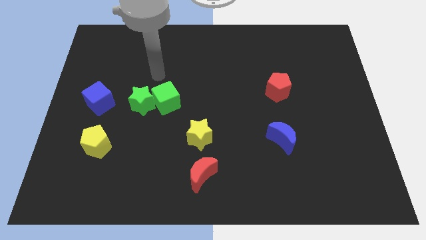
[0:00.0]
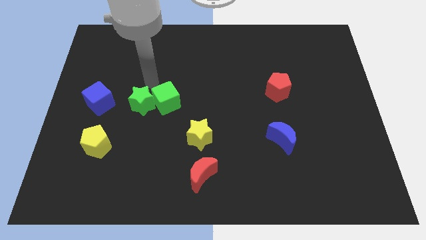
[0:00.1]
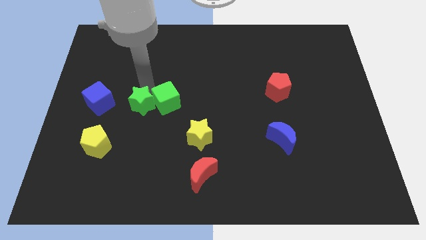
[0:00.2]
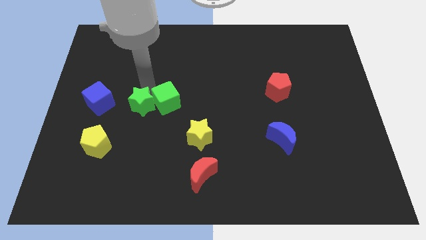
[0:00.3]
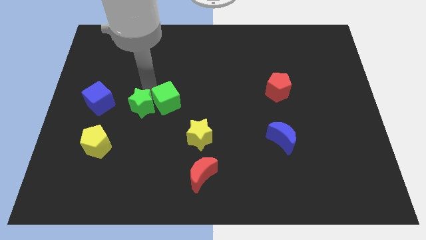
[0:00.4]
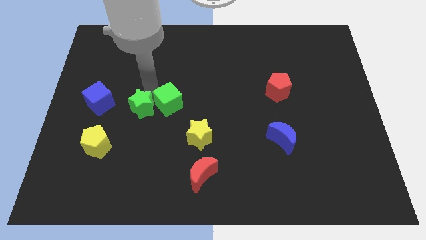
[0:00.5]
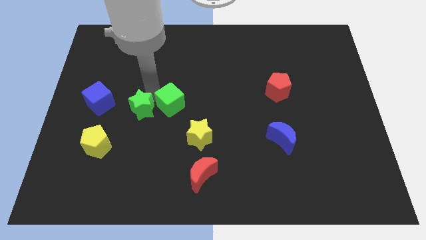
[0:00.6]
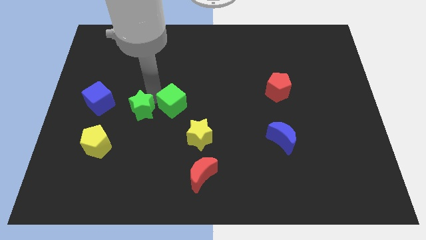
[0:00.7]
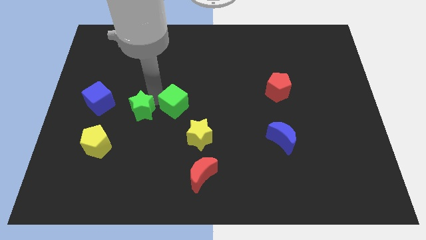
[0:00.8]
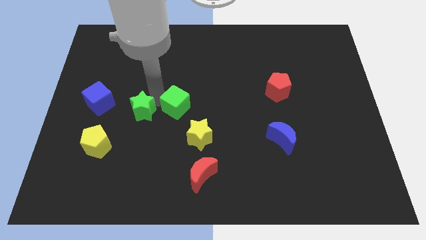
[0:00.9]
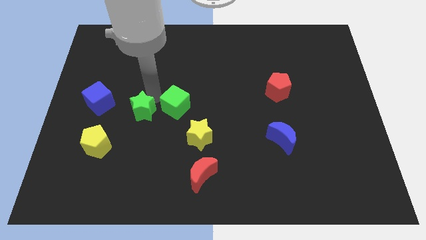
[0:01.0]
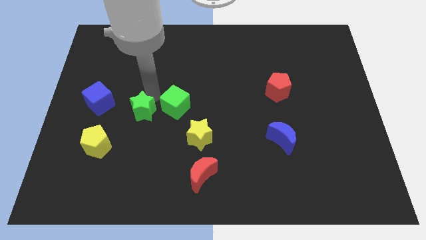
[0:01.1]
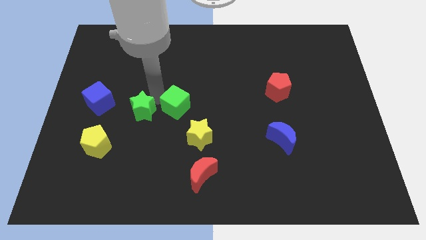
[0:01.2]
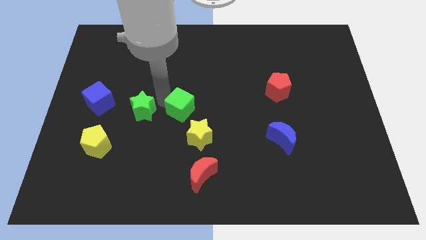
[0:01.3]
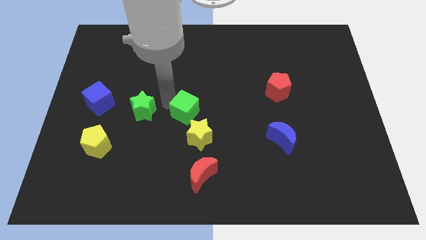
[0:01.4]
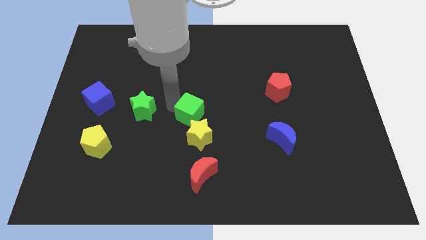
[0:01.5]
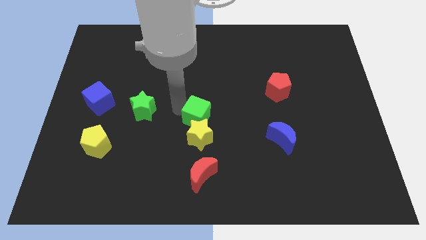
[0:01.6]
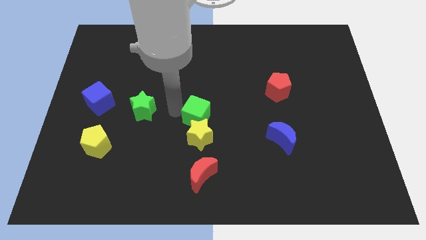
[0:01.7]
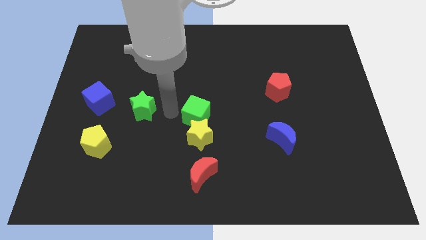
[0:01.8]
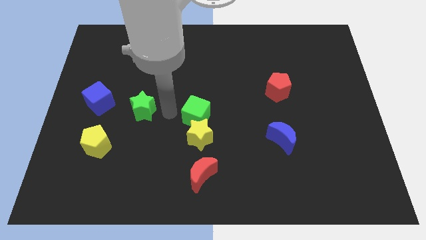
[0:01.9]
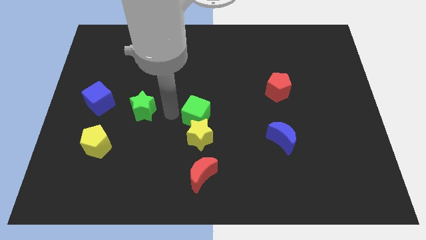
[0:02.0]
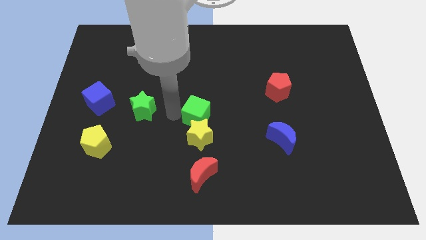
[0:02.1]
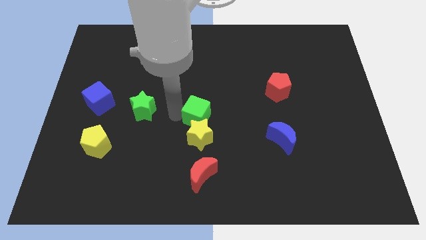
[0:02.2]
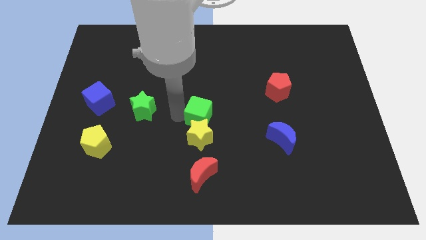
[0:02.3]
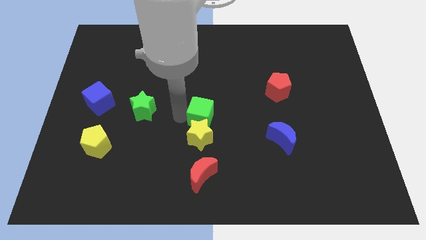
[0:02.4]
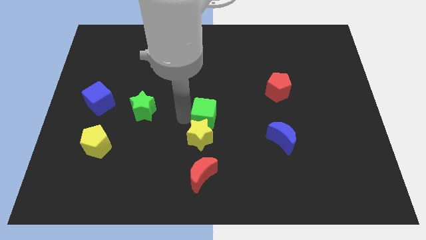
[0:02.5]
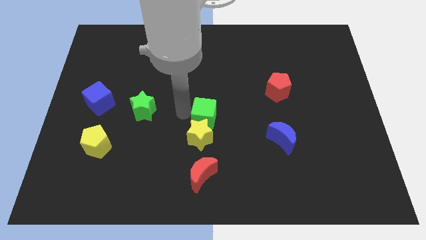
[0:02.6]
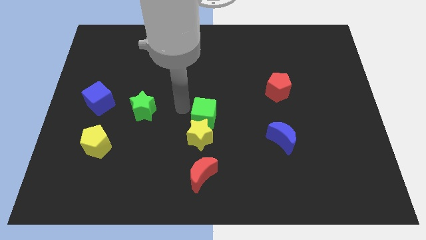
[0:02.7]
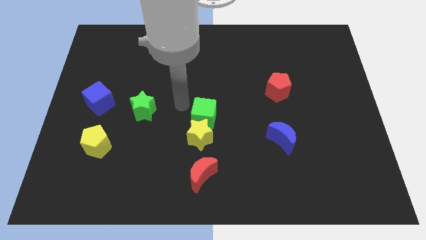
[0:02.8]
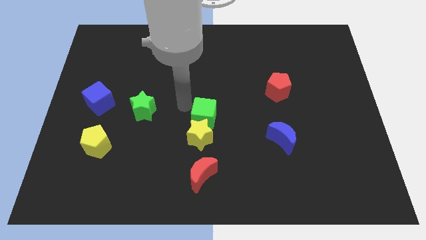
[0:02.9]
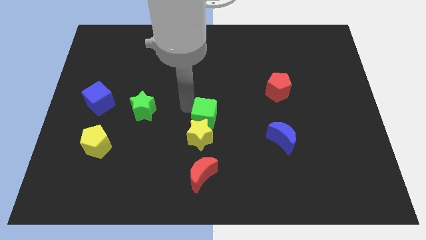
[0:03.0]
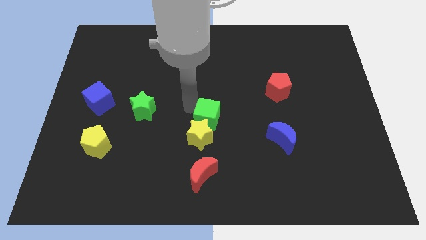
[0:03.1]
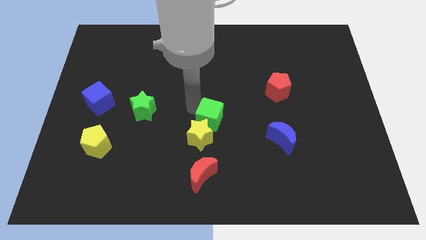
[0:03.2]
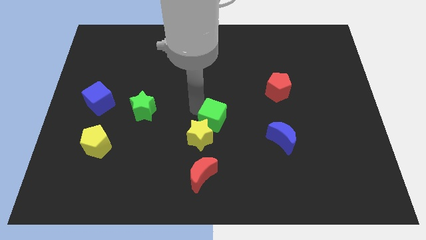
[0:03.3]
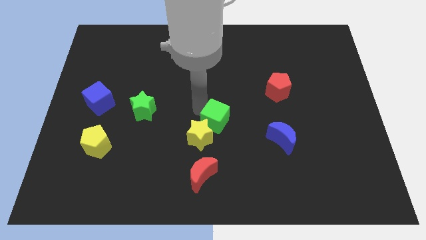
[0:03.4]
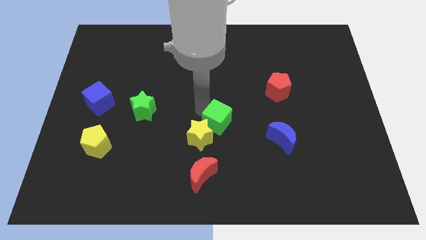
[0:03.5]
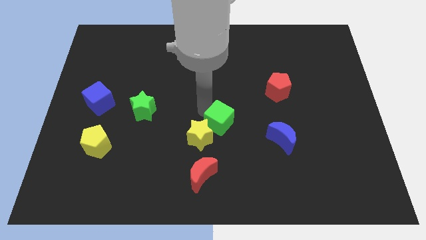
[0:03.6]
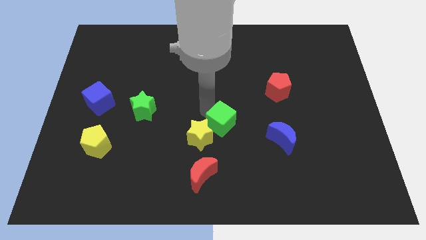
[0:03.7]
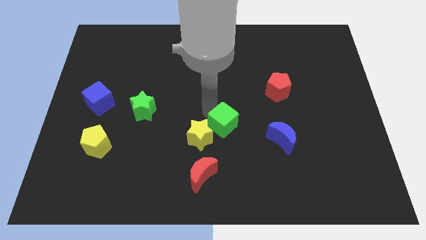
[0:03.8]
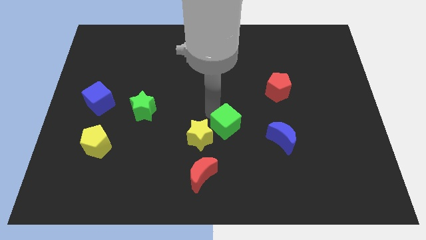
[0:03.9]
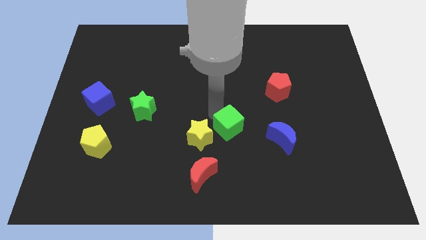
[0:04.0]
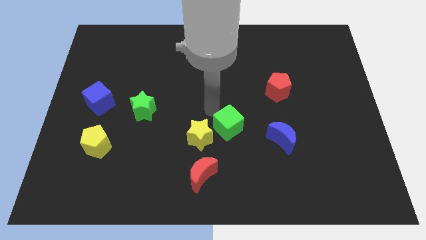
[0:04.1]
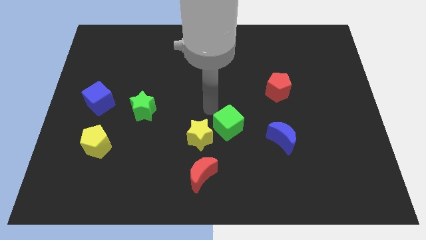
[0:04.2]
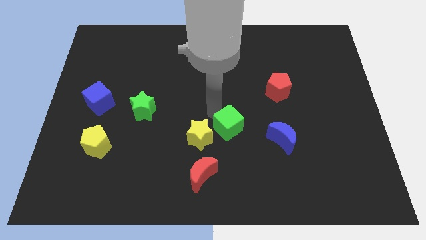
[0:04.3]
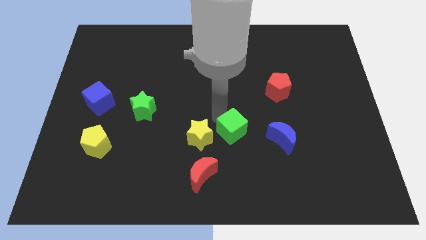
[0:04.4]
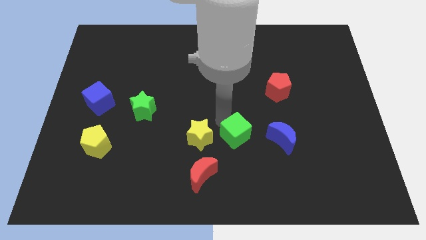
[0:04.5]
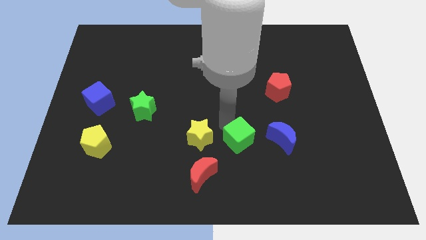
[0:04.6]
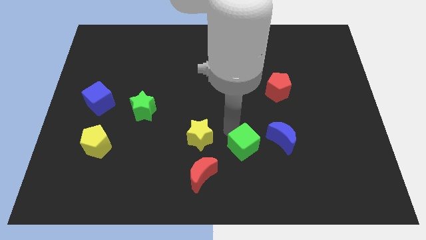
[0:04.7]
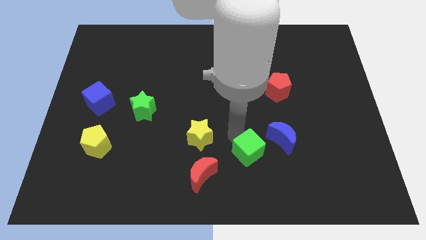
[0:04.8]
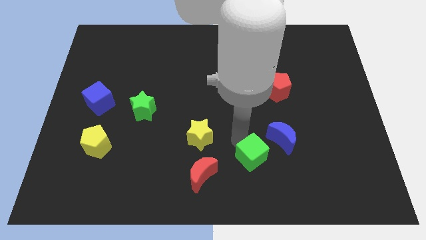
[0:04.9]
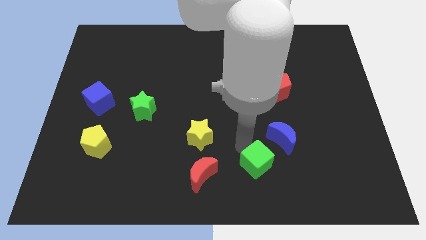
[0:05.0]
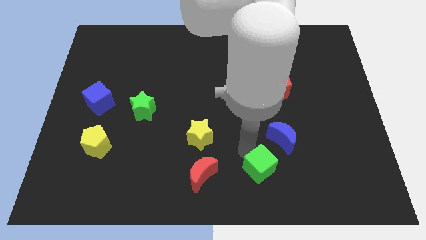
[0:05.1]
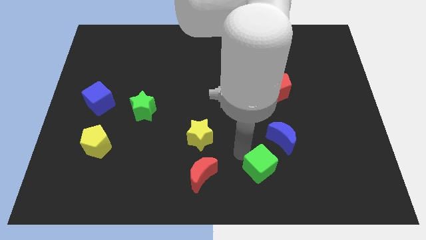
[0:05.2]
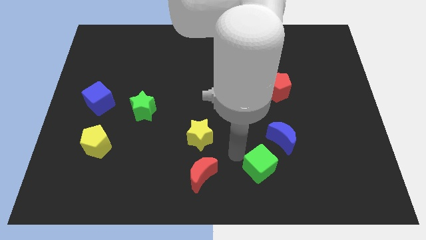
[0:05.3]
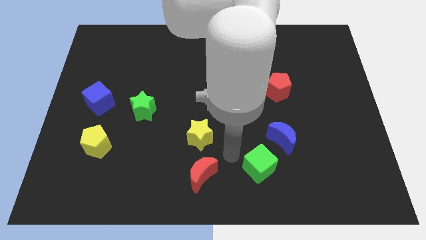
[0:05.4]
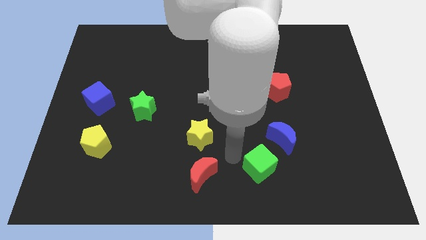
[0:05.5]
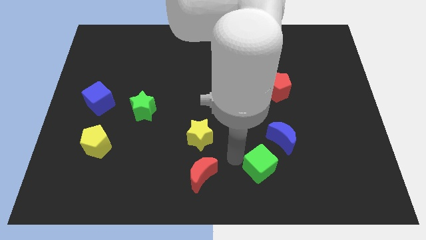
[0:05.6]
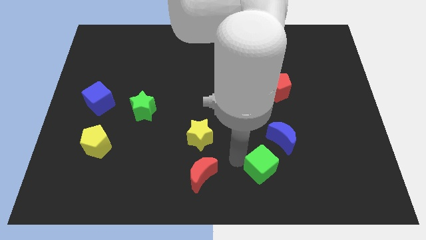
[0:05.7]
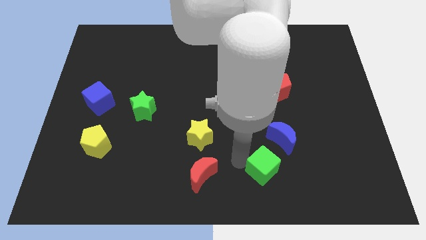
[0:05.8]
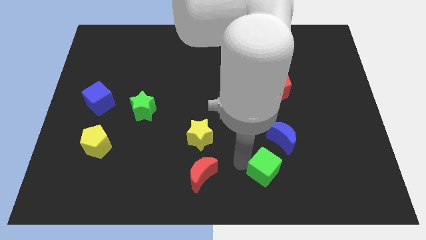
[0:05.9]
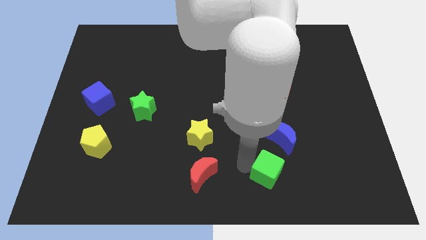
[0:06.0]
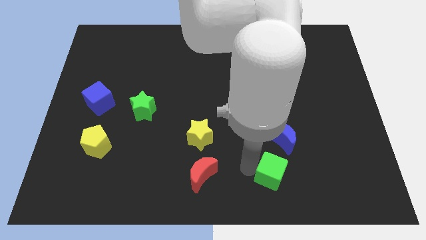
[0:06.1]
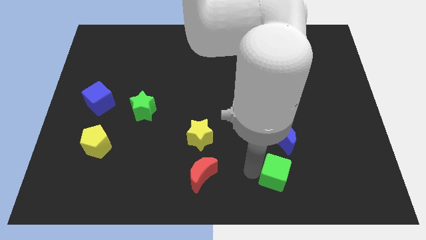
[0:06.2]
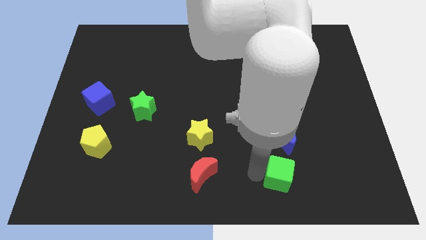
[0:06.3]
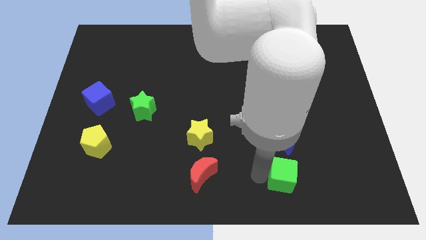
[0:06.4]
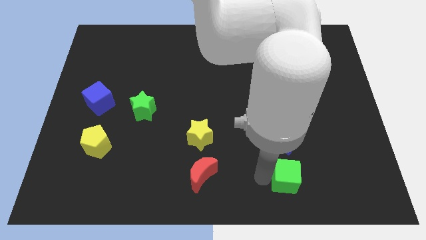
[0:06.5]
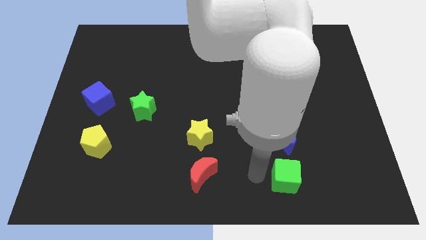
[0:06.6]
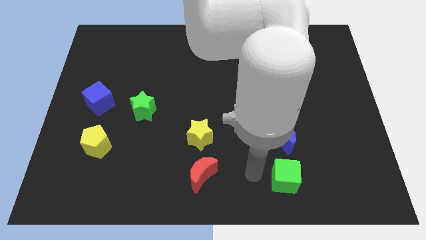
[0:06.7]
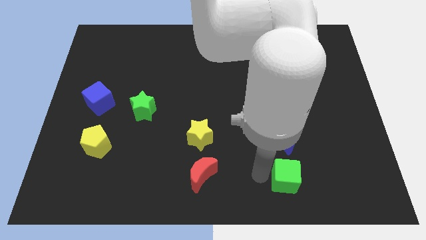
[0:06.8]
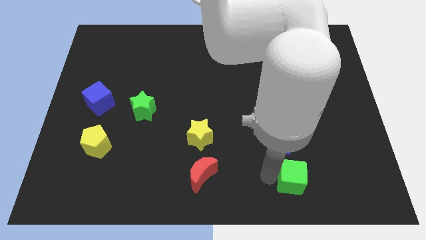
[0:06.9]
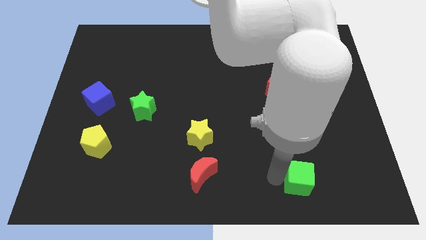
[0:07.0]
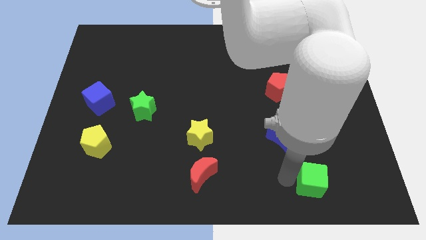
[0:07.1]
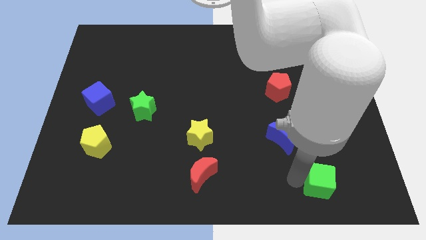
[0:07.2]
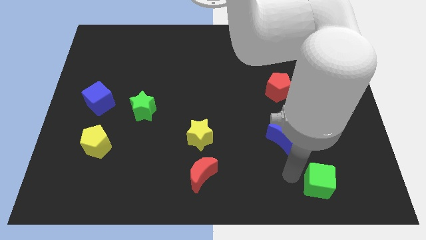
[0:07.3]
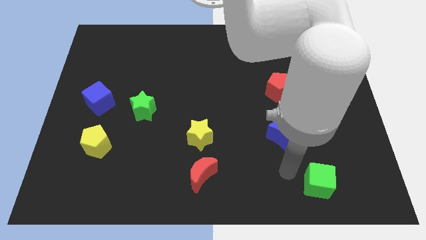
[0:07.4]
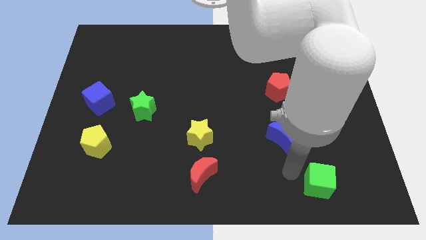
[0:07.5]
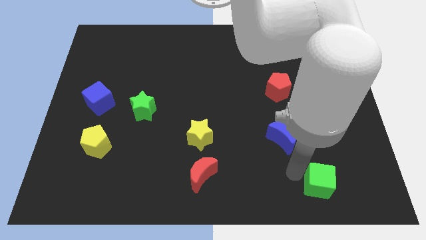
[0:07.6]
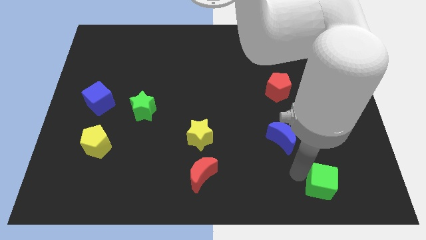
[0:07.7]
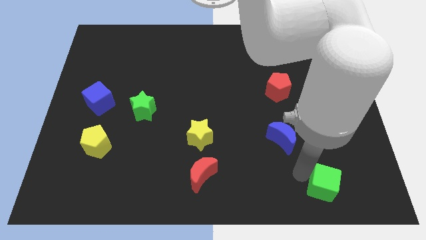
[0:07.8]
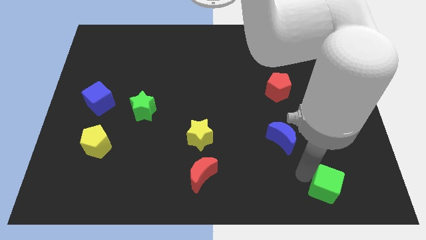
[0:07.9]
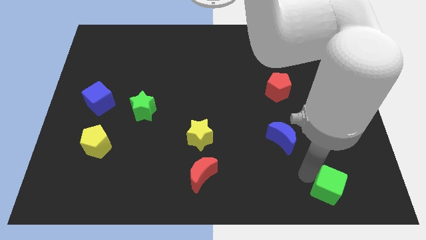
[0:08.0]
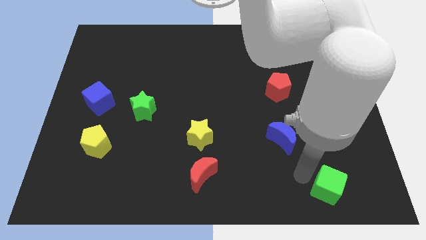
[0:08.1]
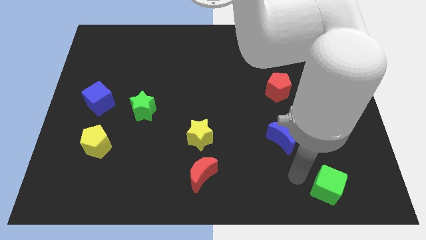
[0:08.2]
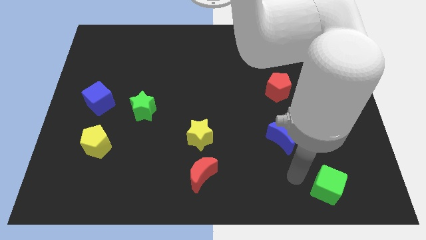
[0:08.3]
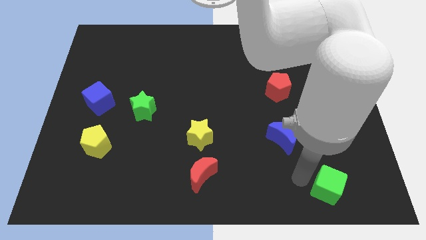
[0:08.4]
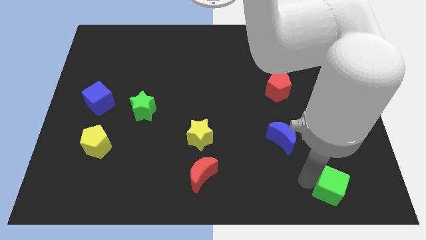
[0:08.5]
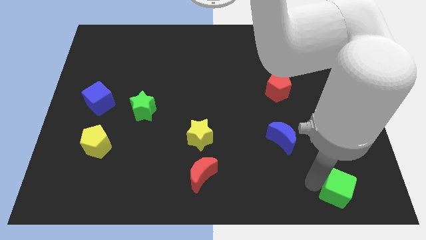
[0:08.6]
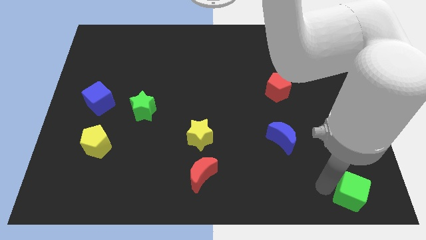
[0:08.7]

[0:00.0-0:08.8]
push the green cube to the bottom right
